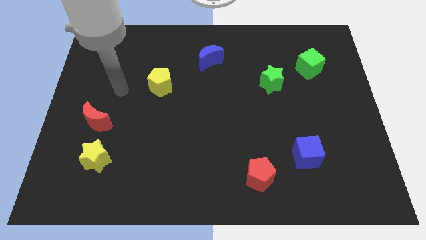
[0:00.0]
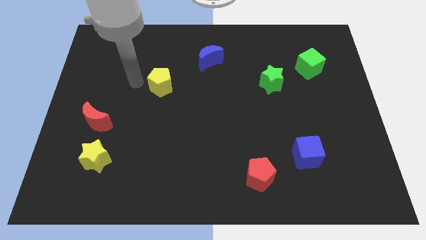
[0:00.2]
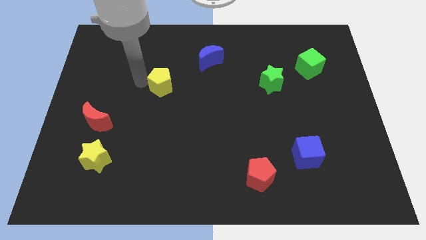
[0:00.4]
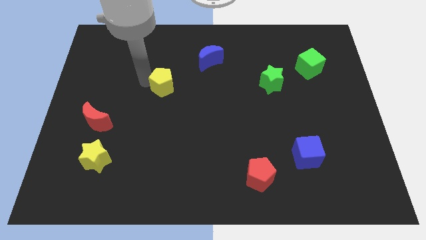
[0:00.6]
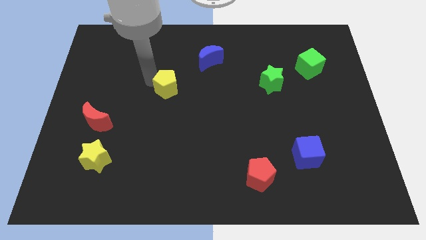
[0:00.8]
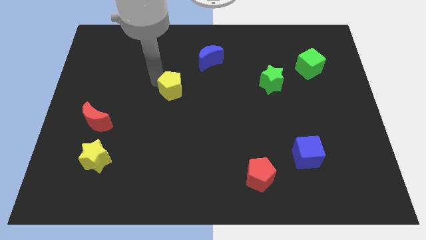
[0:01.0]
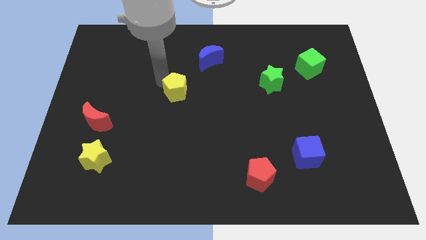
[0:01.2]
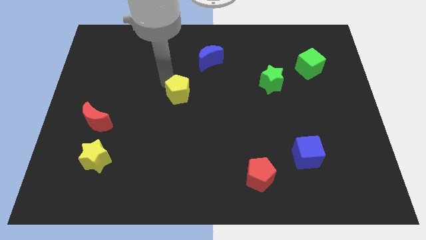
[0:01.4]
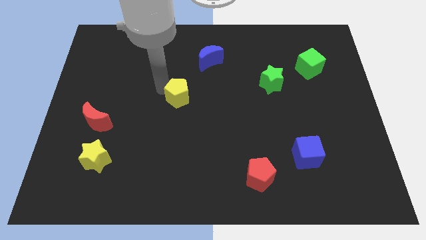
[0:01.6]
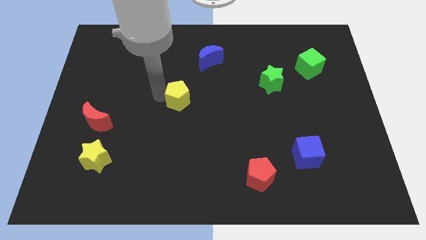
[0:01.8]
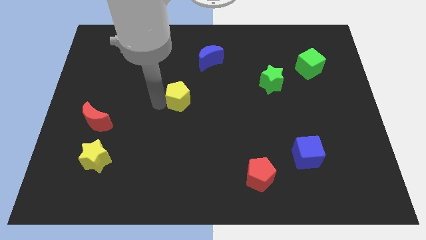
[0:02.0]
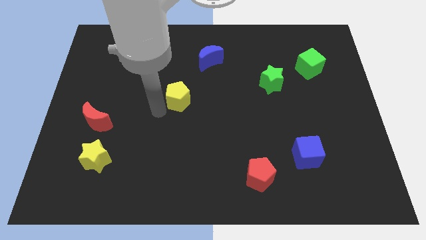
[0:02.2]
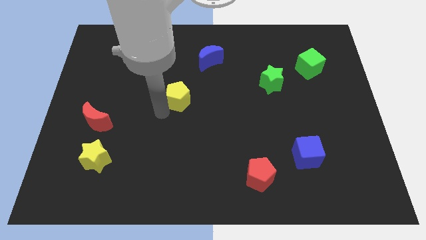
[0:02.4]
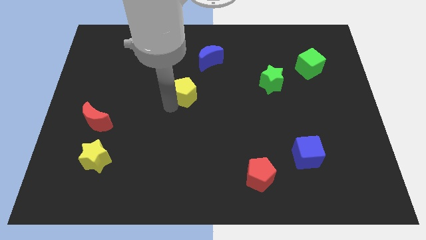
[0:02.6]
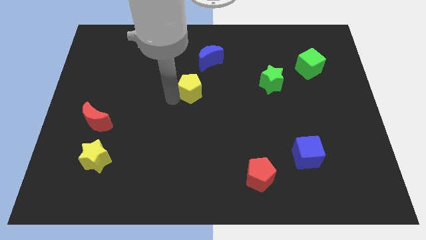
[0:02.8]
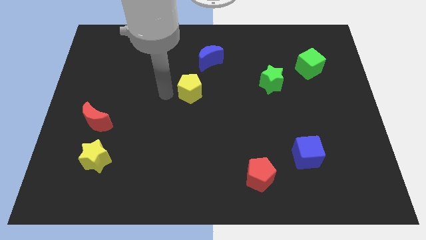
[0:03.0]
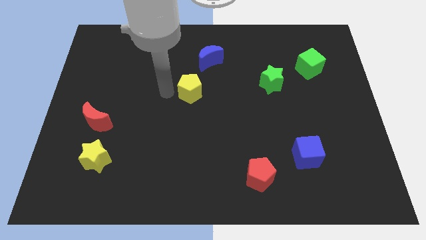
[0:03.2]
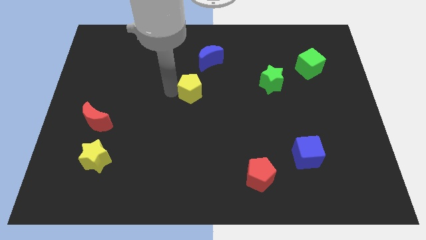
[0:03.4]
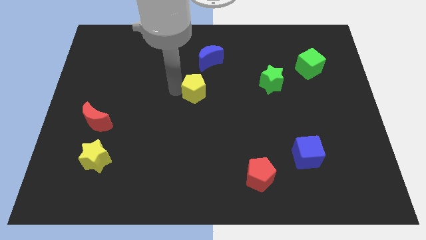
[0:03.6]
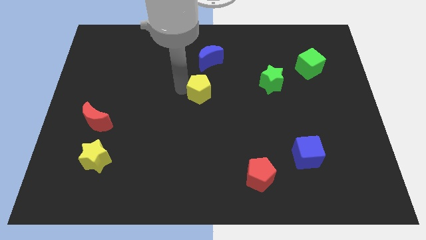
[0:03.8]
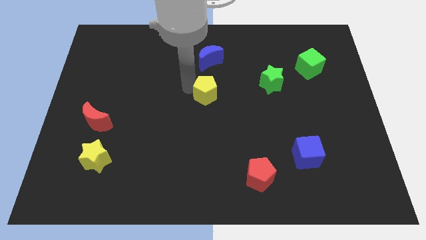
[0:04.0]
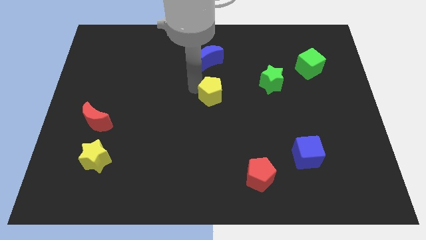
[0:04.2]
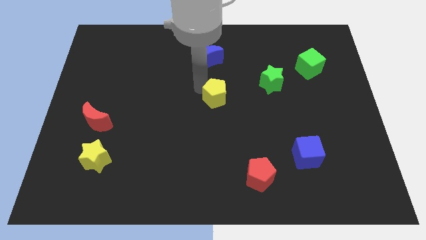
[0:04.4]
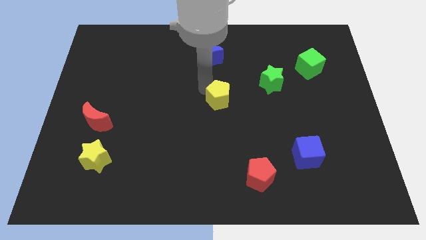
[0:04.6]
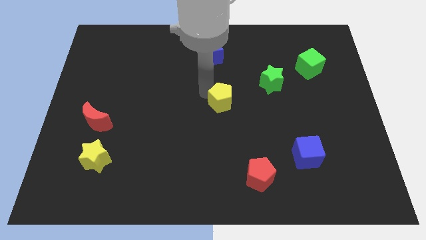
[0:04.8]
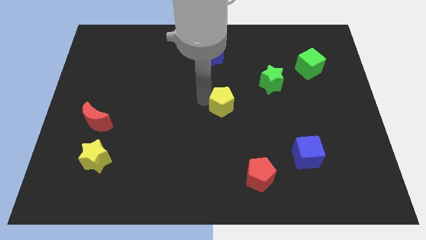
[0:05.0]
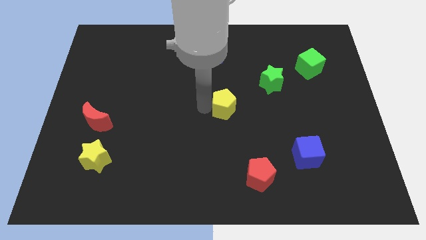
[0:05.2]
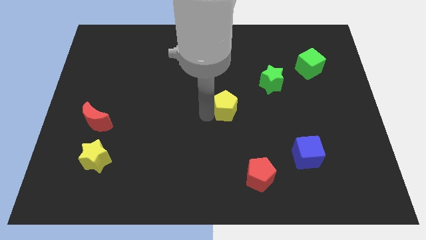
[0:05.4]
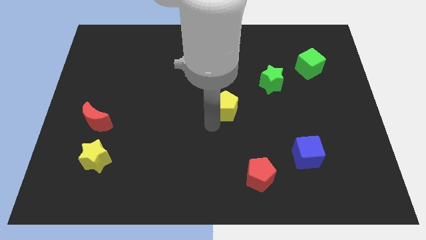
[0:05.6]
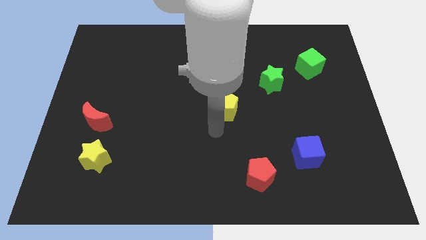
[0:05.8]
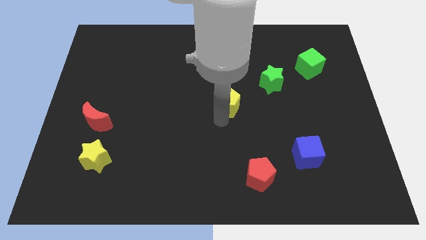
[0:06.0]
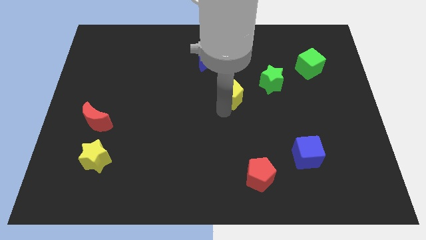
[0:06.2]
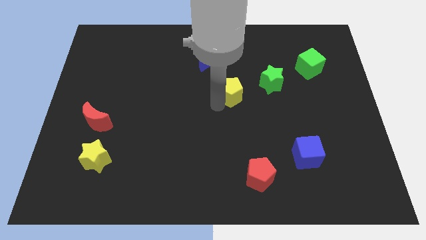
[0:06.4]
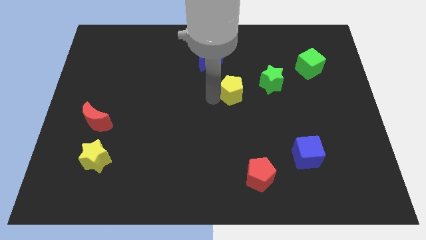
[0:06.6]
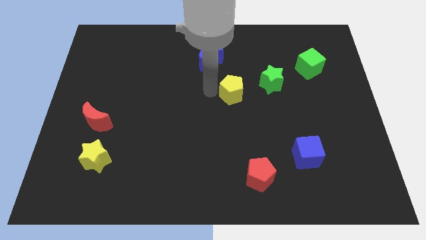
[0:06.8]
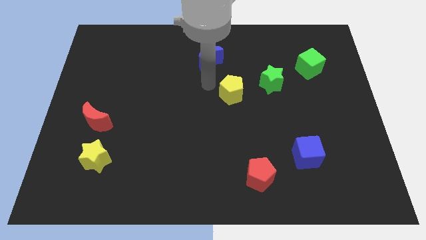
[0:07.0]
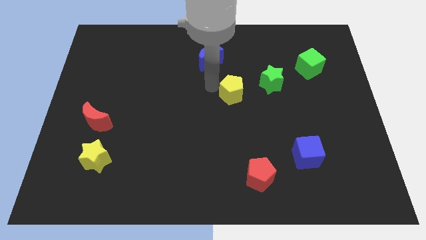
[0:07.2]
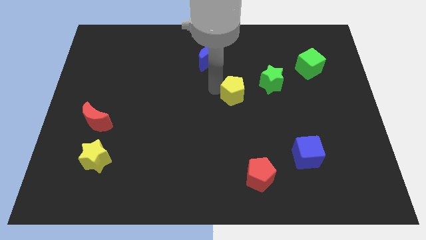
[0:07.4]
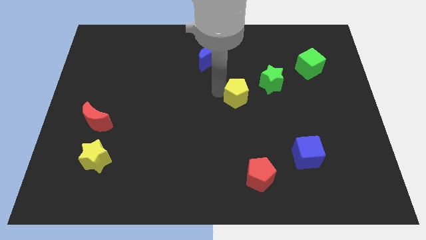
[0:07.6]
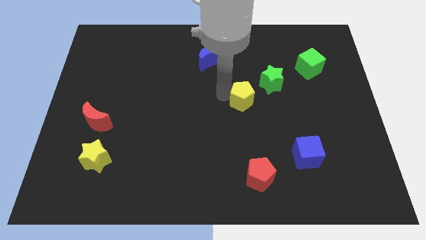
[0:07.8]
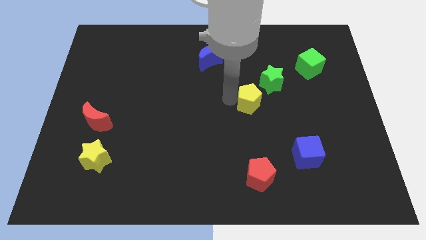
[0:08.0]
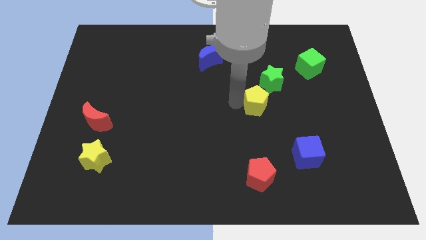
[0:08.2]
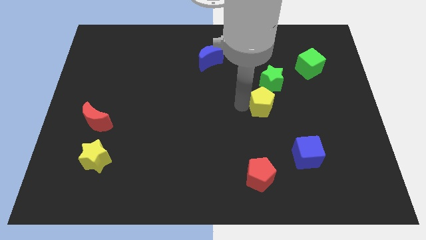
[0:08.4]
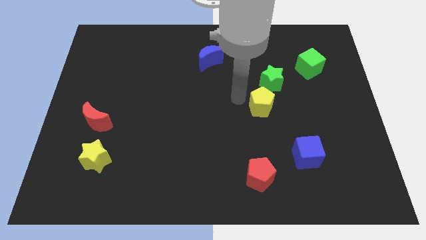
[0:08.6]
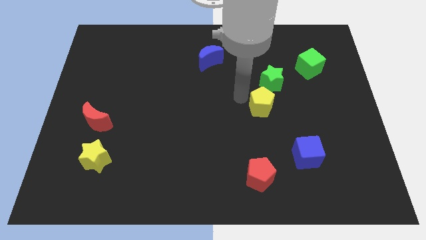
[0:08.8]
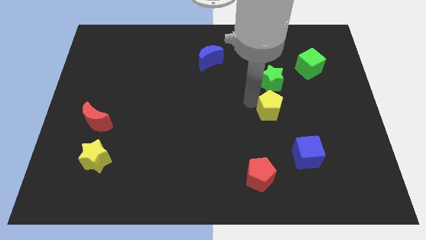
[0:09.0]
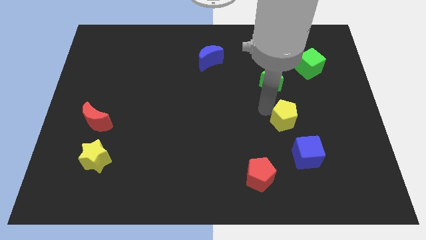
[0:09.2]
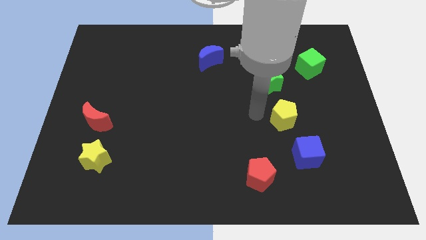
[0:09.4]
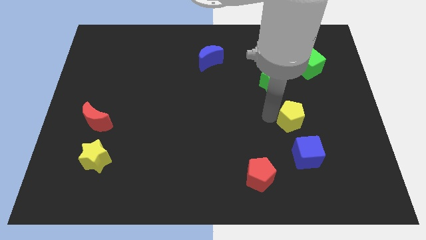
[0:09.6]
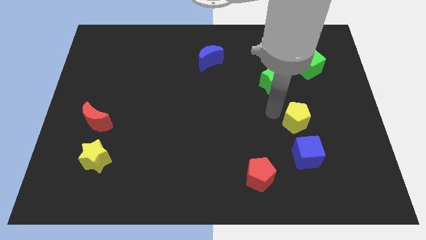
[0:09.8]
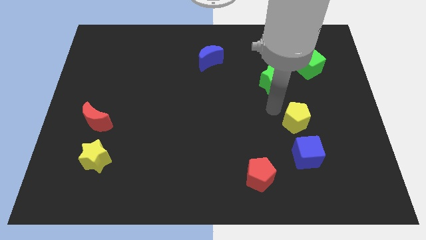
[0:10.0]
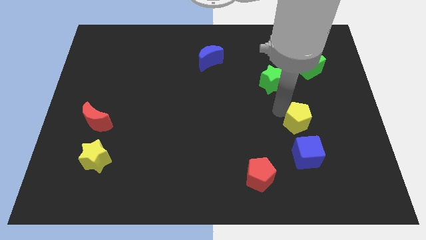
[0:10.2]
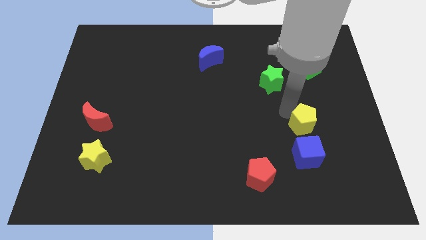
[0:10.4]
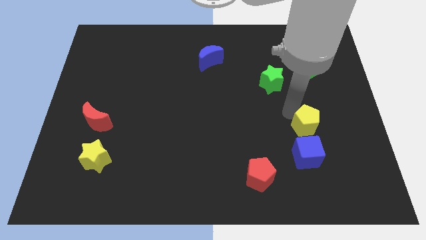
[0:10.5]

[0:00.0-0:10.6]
slide the yellow pentagon to the top right of the blue cube

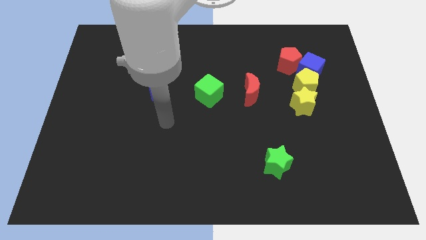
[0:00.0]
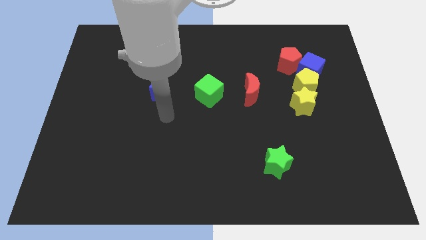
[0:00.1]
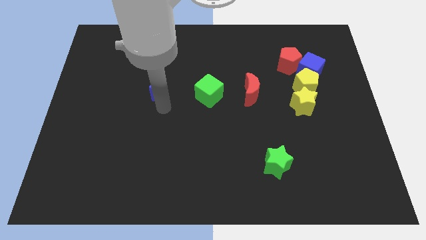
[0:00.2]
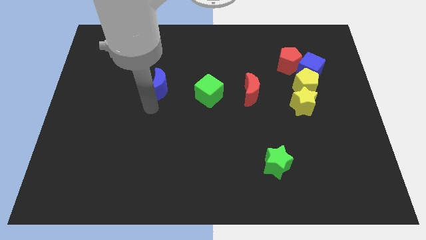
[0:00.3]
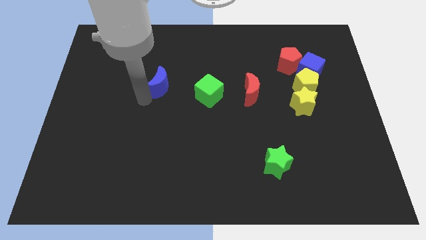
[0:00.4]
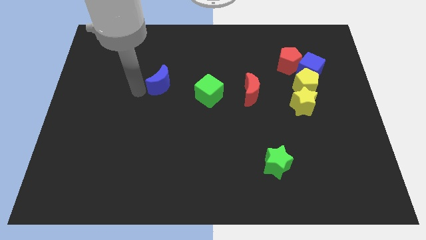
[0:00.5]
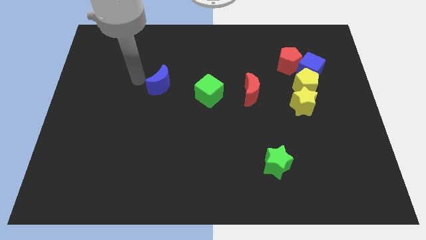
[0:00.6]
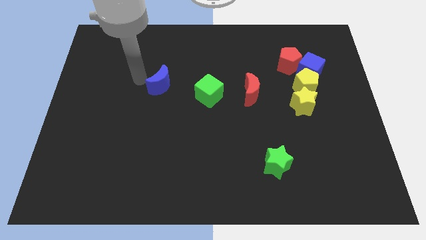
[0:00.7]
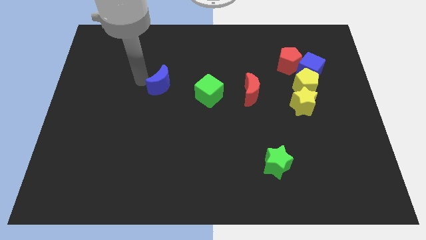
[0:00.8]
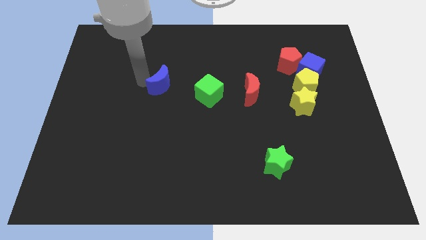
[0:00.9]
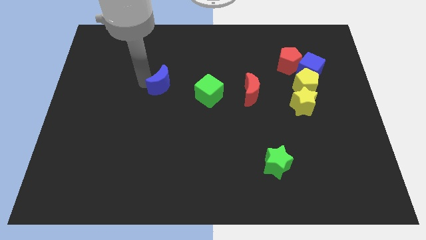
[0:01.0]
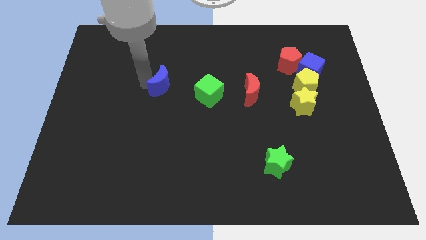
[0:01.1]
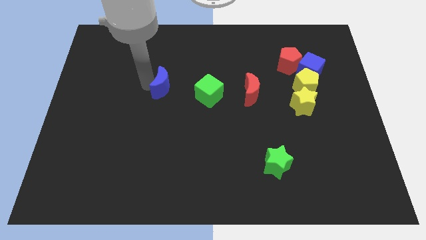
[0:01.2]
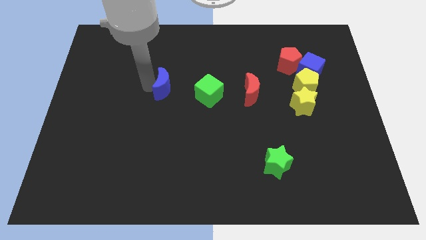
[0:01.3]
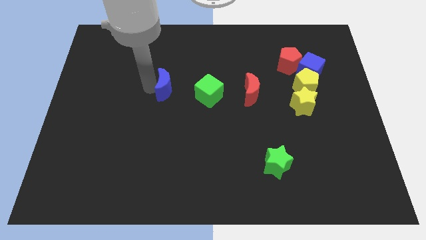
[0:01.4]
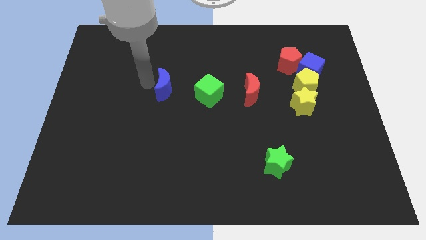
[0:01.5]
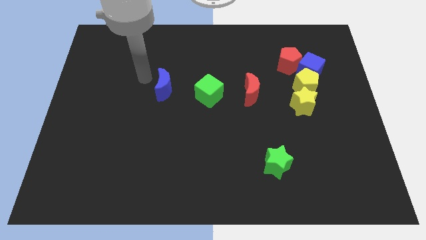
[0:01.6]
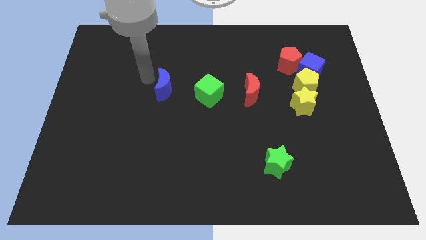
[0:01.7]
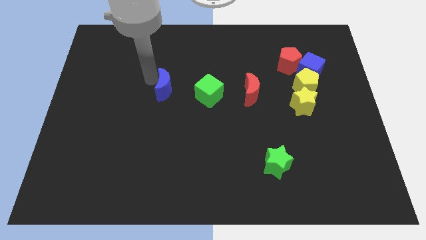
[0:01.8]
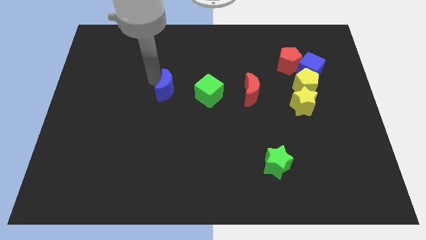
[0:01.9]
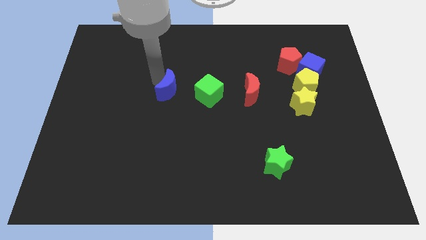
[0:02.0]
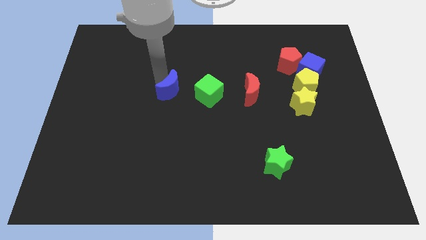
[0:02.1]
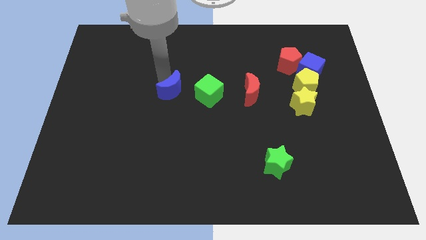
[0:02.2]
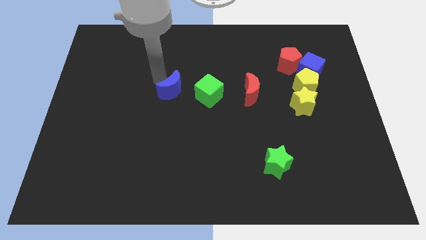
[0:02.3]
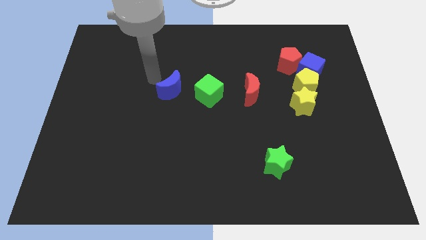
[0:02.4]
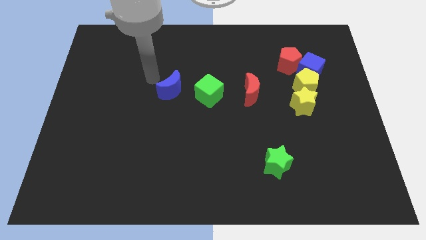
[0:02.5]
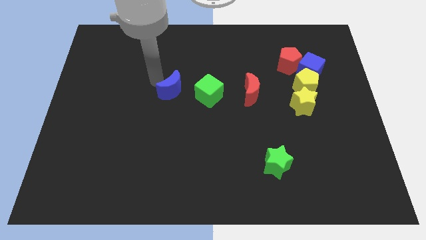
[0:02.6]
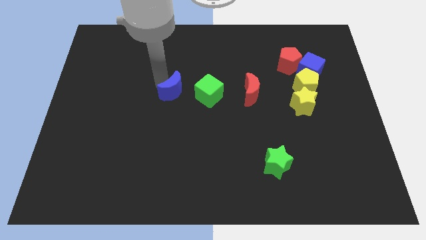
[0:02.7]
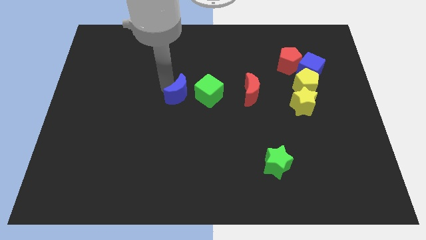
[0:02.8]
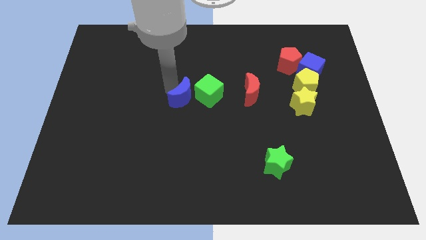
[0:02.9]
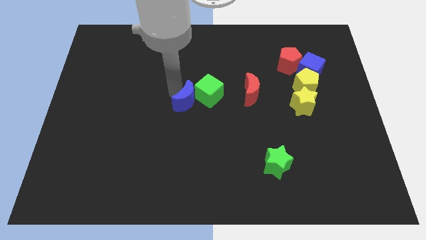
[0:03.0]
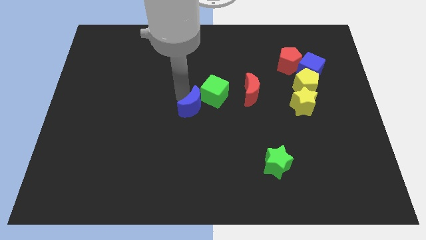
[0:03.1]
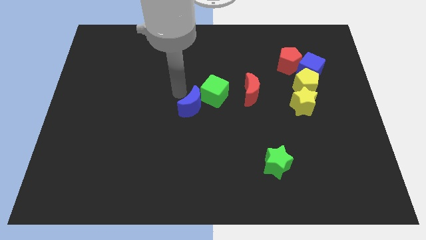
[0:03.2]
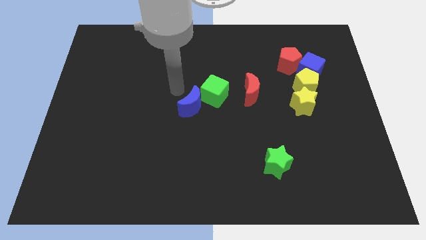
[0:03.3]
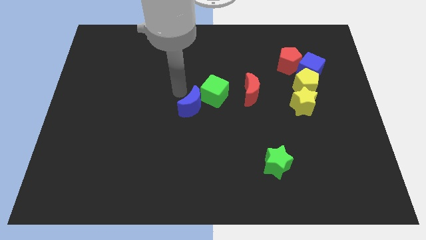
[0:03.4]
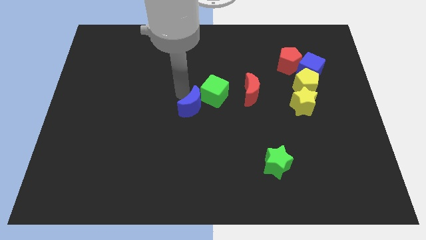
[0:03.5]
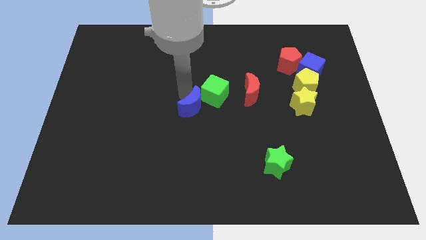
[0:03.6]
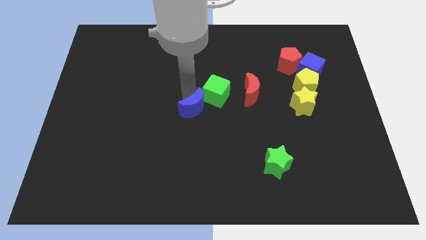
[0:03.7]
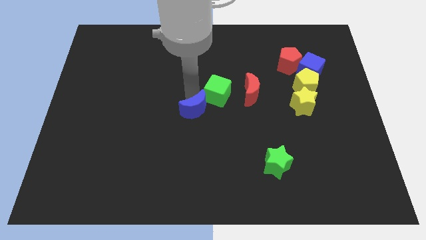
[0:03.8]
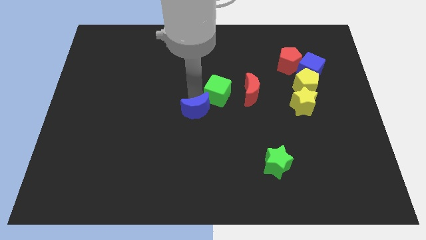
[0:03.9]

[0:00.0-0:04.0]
push the blue moon to the bottom side of the green cube
